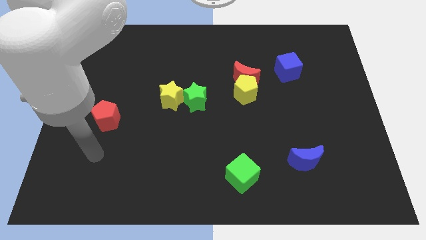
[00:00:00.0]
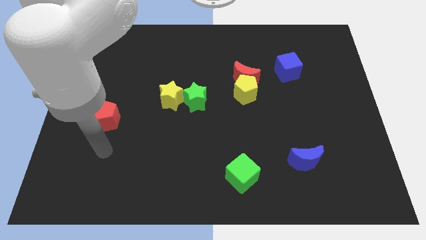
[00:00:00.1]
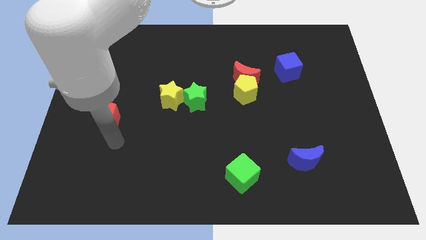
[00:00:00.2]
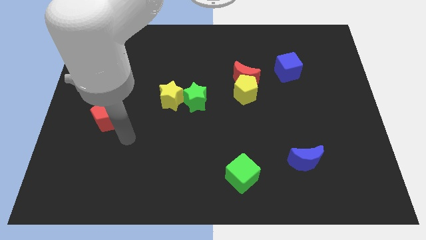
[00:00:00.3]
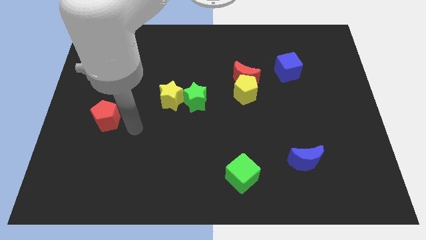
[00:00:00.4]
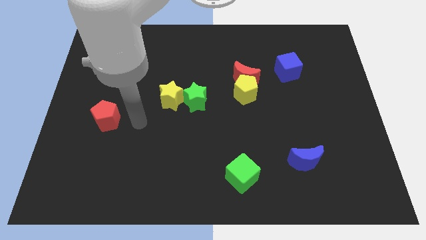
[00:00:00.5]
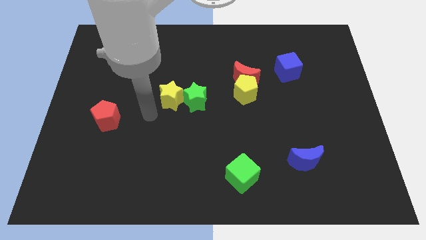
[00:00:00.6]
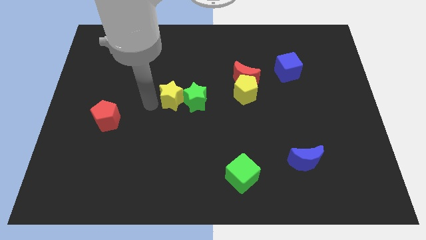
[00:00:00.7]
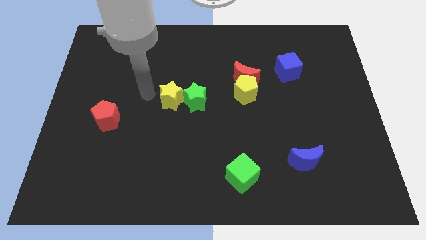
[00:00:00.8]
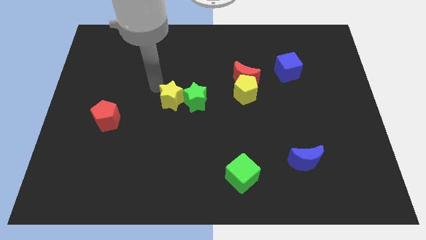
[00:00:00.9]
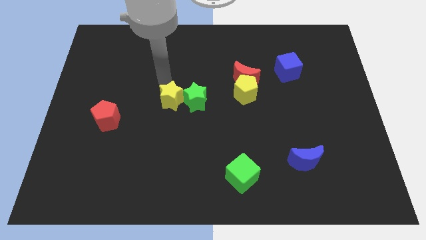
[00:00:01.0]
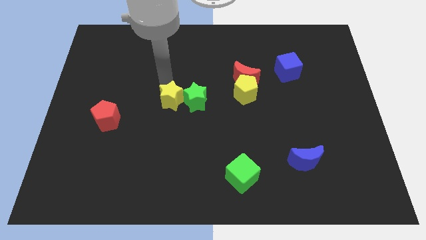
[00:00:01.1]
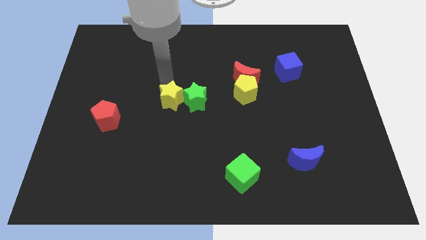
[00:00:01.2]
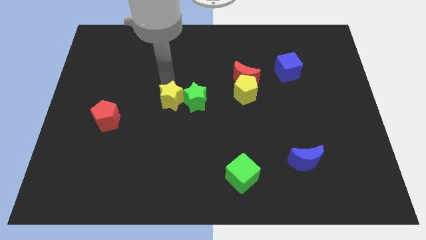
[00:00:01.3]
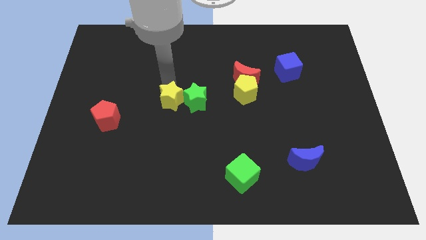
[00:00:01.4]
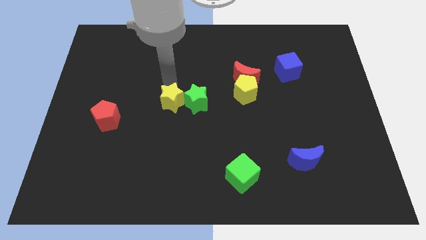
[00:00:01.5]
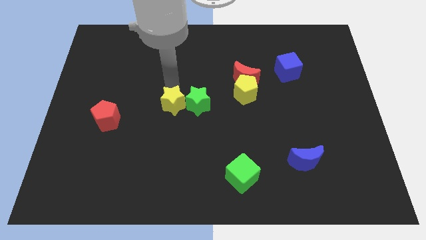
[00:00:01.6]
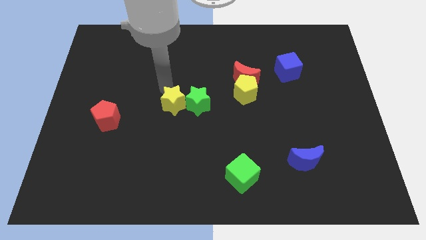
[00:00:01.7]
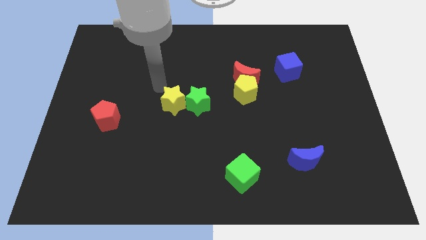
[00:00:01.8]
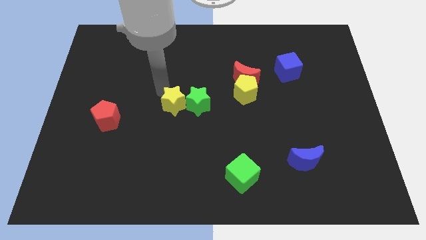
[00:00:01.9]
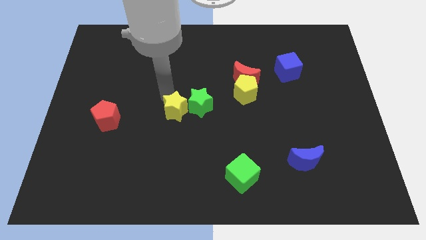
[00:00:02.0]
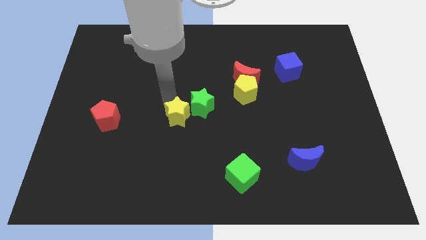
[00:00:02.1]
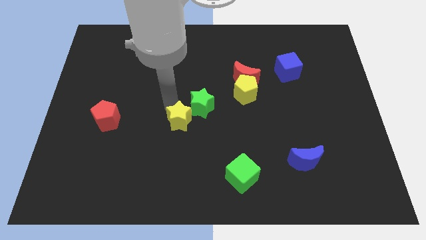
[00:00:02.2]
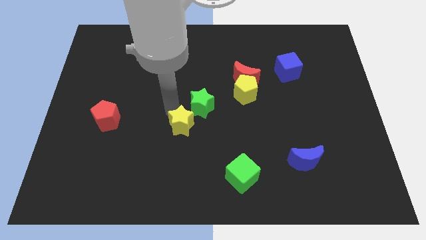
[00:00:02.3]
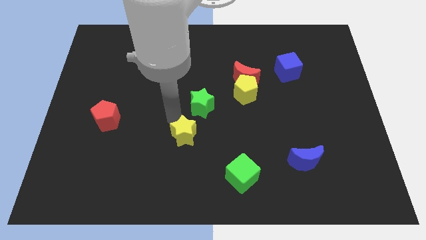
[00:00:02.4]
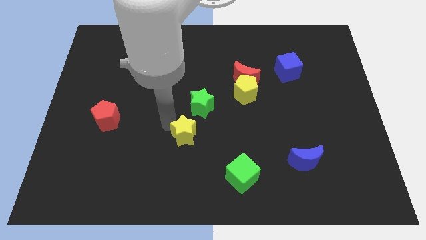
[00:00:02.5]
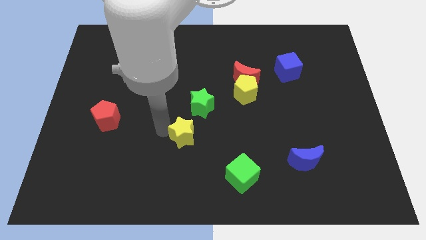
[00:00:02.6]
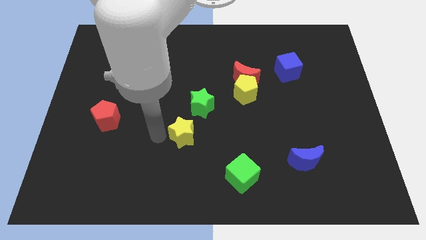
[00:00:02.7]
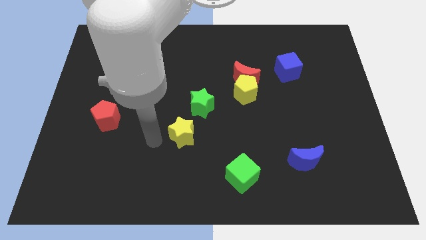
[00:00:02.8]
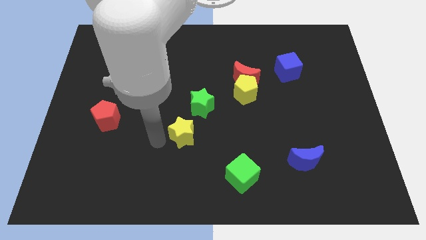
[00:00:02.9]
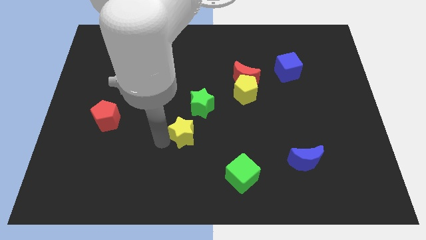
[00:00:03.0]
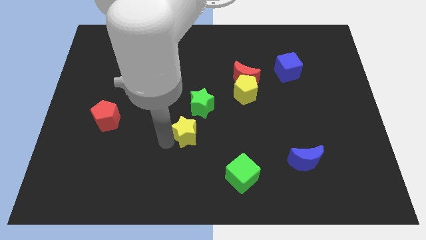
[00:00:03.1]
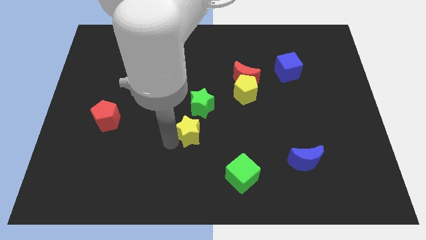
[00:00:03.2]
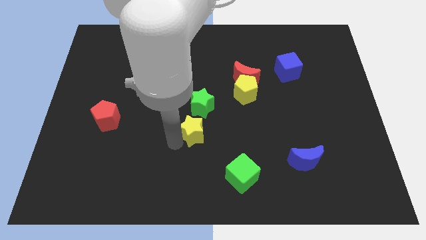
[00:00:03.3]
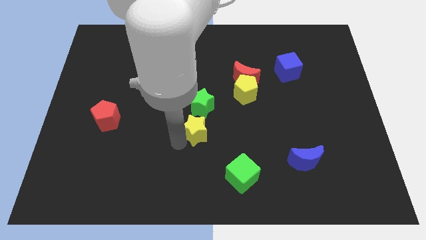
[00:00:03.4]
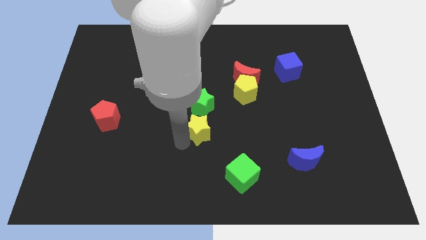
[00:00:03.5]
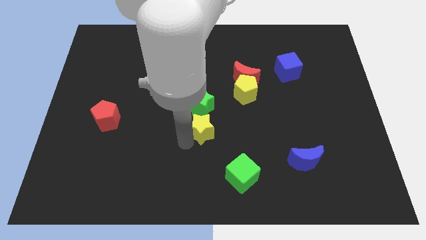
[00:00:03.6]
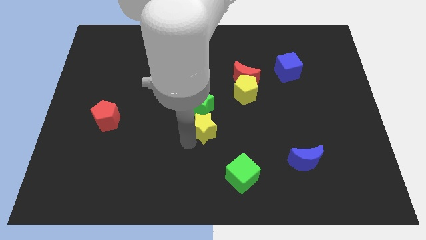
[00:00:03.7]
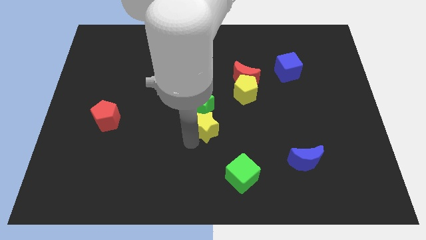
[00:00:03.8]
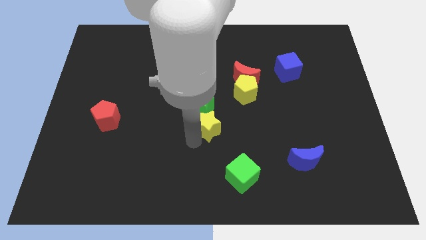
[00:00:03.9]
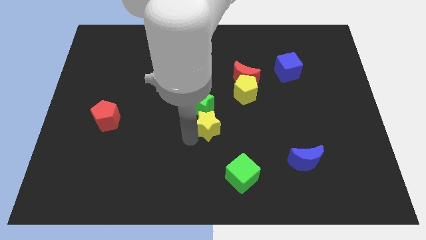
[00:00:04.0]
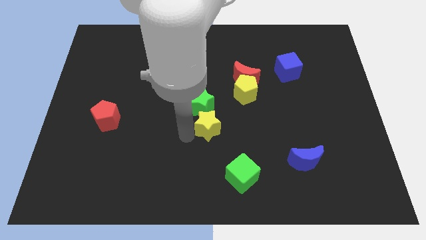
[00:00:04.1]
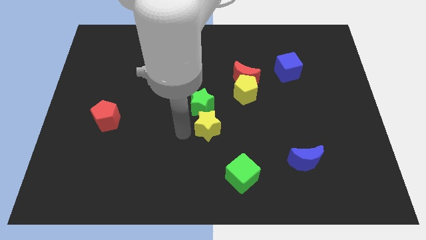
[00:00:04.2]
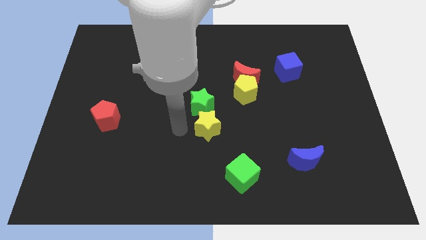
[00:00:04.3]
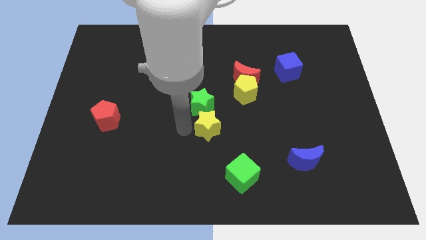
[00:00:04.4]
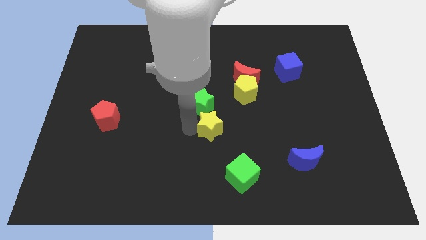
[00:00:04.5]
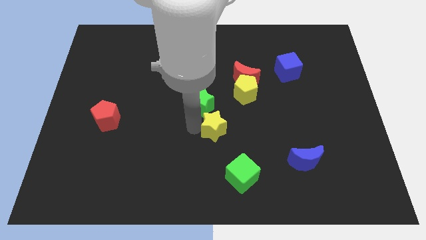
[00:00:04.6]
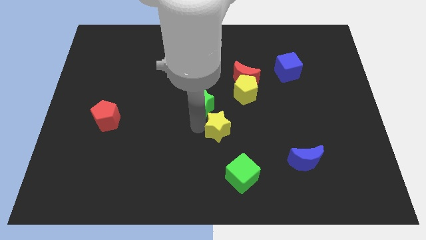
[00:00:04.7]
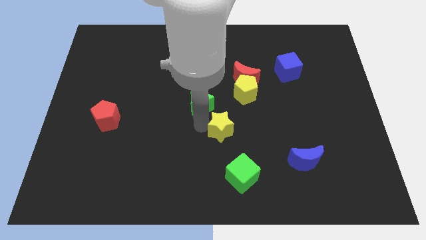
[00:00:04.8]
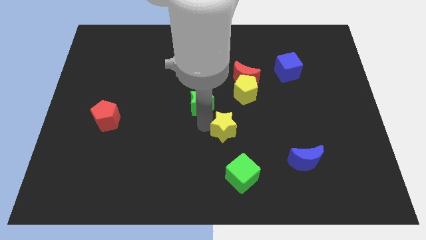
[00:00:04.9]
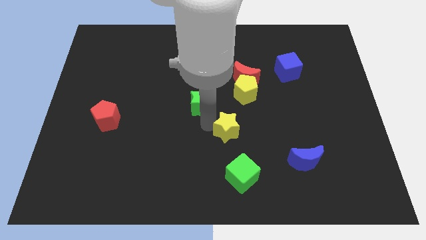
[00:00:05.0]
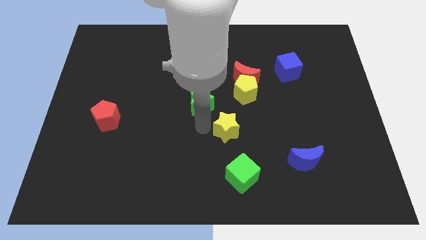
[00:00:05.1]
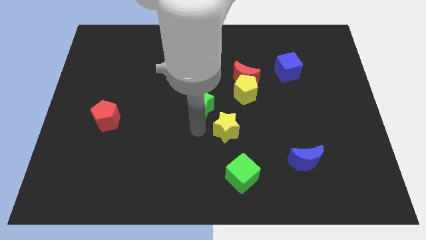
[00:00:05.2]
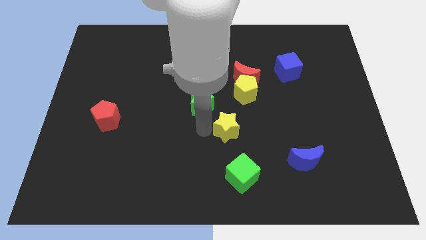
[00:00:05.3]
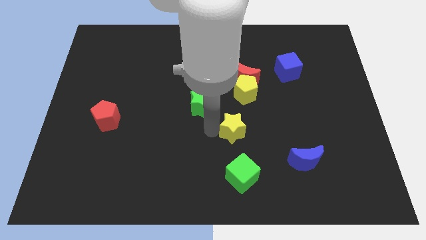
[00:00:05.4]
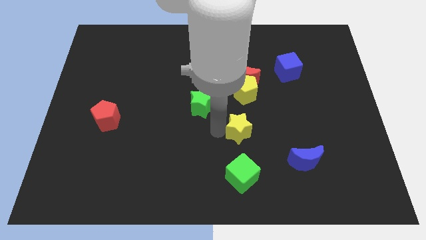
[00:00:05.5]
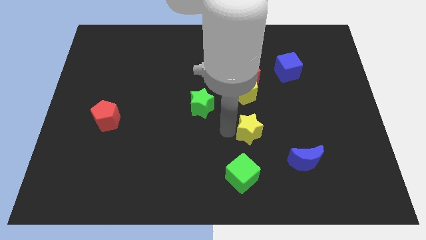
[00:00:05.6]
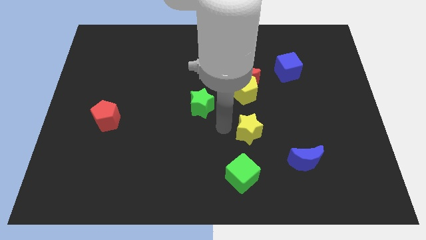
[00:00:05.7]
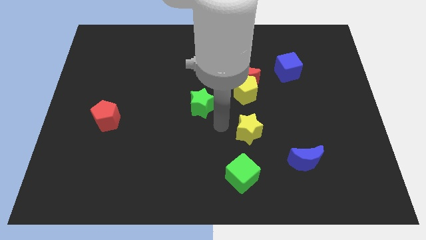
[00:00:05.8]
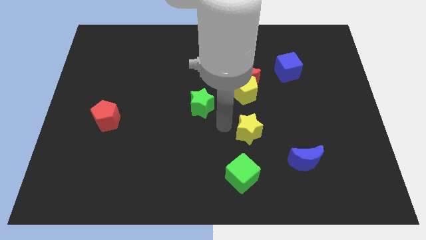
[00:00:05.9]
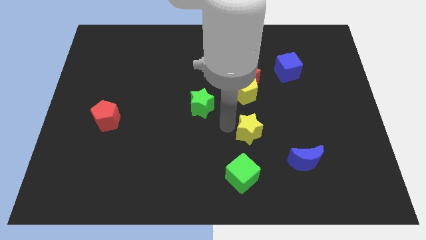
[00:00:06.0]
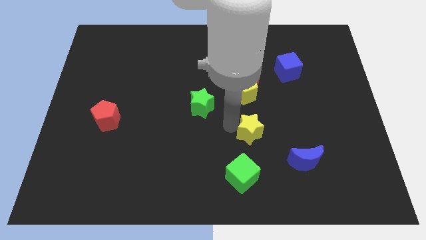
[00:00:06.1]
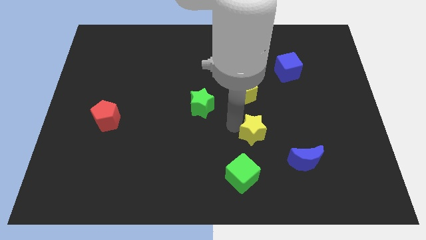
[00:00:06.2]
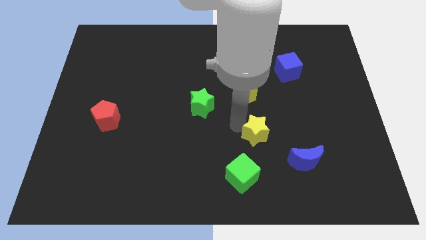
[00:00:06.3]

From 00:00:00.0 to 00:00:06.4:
move the yellow star diagonally up and to the left of the blue moon

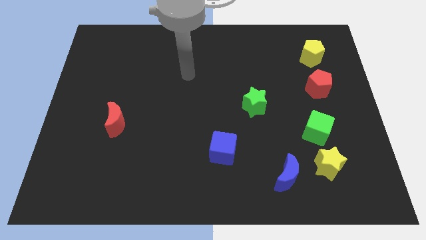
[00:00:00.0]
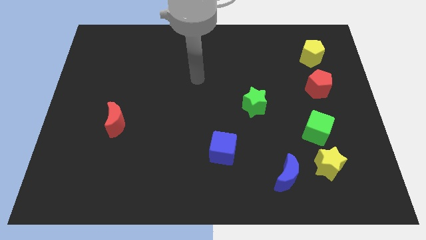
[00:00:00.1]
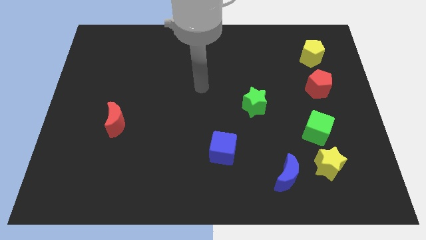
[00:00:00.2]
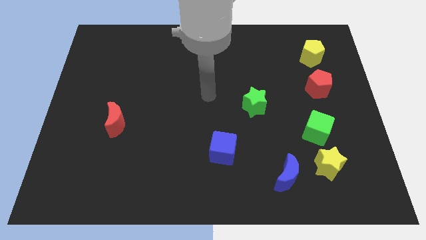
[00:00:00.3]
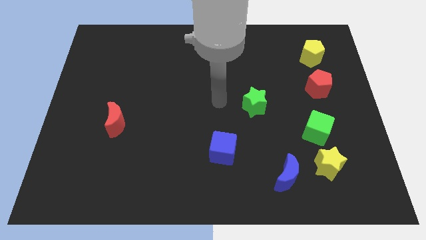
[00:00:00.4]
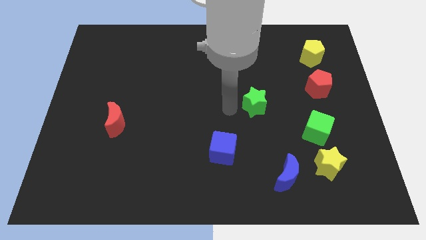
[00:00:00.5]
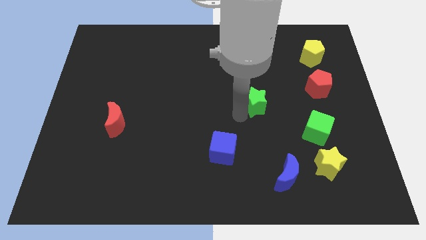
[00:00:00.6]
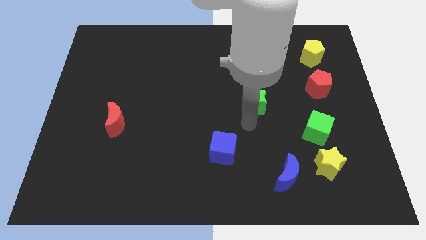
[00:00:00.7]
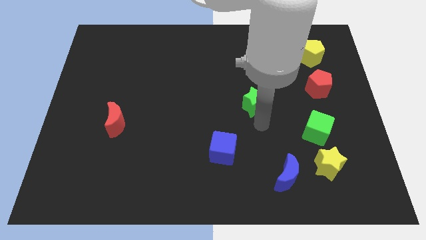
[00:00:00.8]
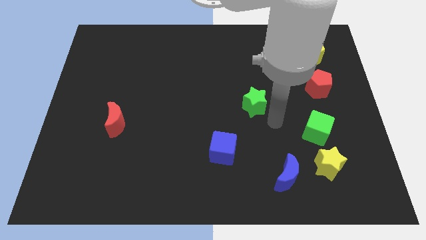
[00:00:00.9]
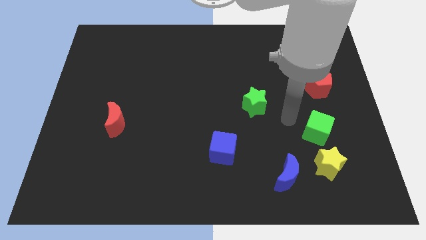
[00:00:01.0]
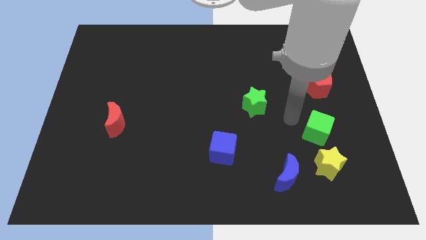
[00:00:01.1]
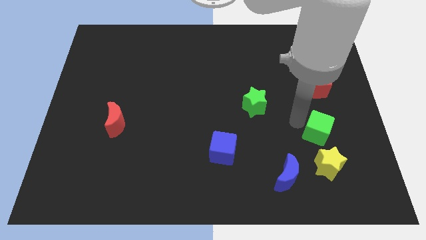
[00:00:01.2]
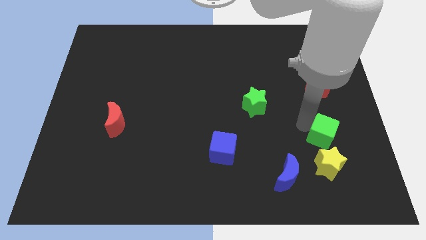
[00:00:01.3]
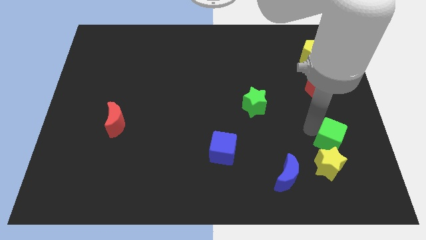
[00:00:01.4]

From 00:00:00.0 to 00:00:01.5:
put the green cube to the top right of the yellow star
